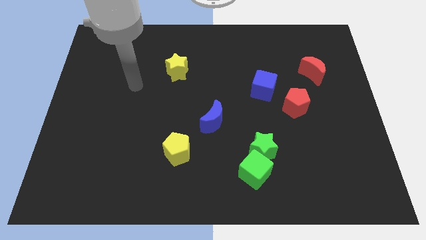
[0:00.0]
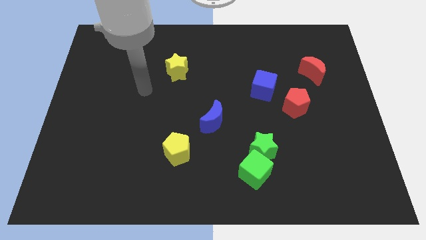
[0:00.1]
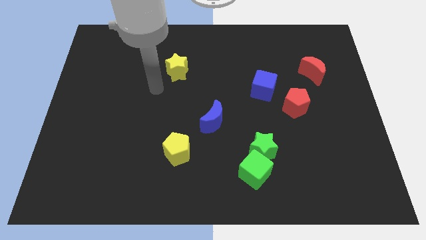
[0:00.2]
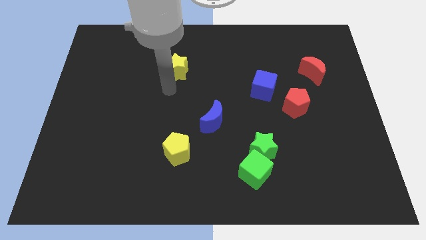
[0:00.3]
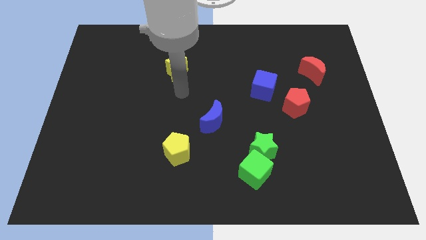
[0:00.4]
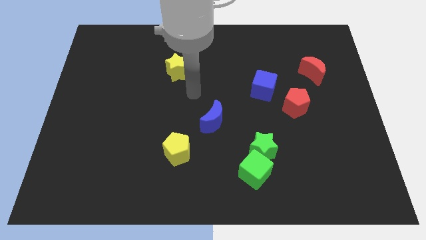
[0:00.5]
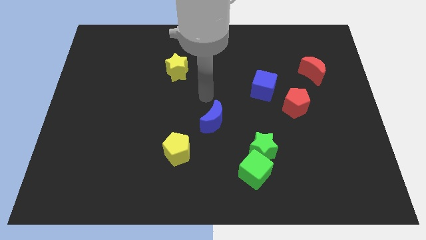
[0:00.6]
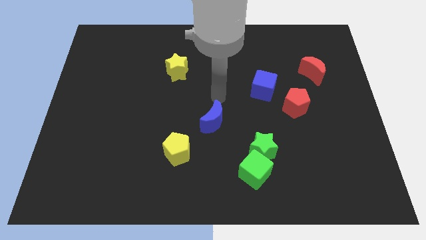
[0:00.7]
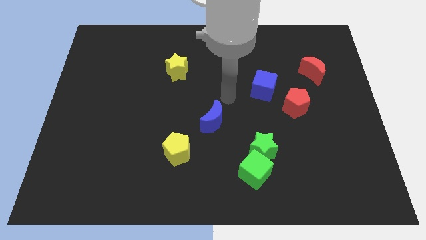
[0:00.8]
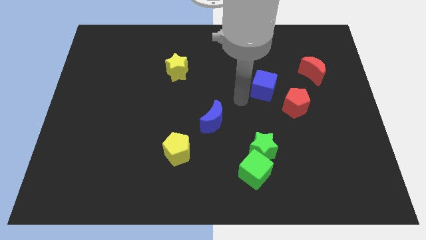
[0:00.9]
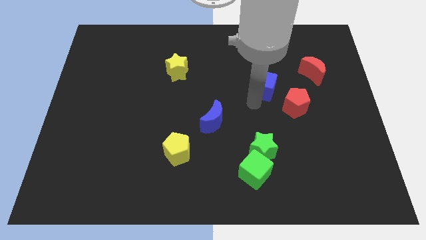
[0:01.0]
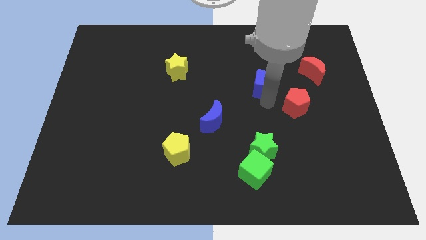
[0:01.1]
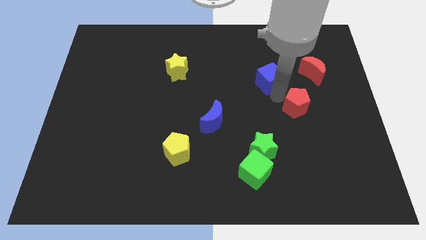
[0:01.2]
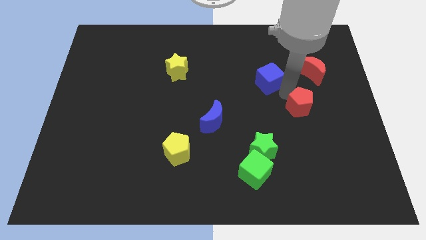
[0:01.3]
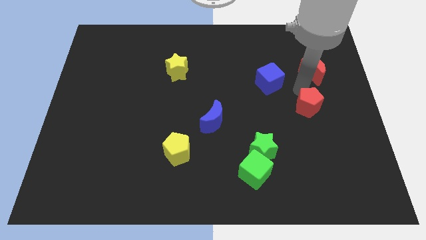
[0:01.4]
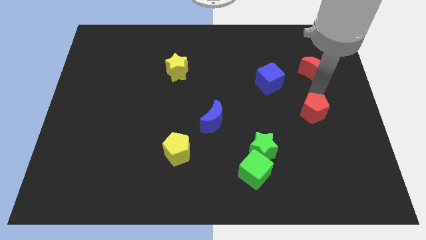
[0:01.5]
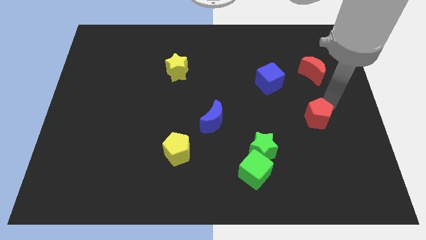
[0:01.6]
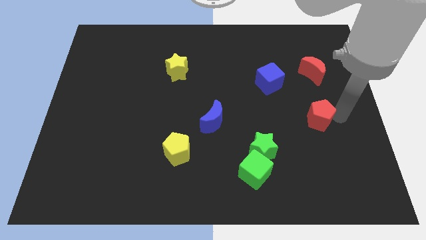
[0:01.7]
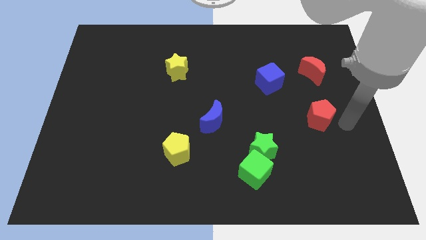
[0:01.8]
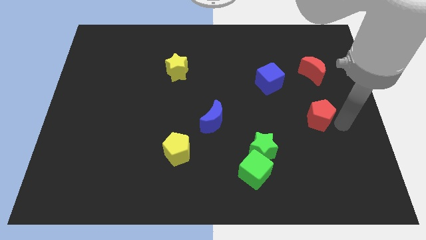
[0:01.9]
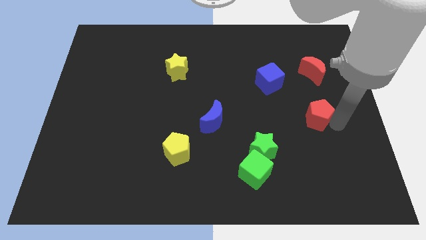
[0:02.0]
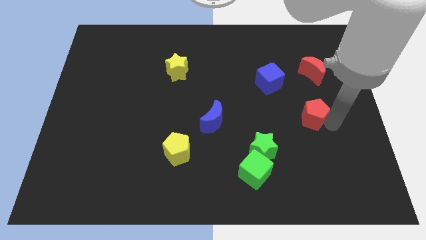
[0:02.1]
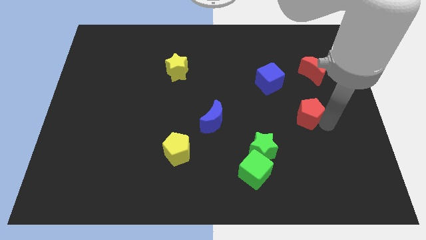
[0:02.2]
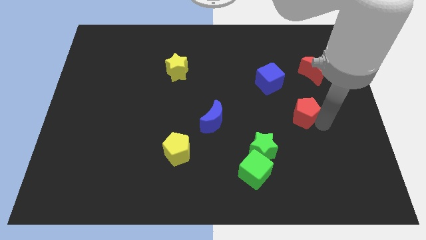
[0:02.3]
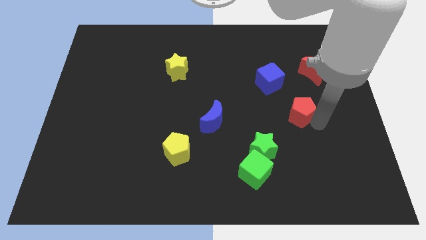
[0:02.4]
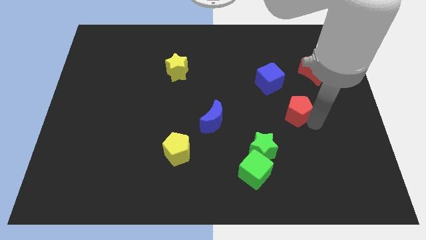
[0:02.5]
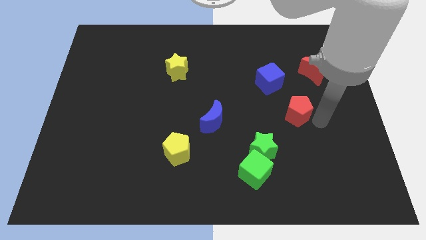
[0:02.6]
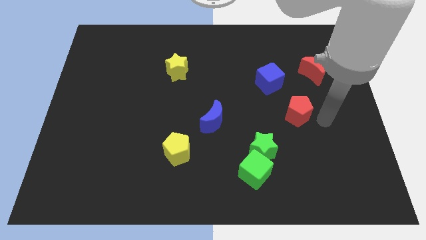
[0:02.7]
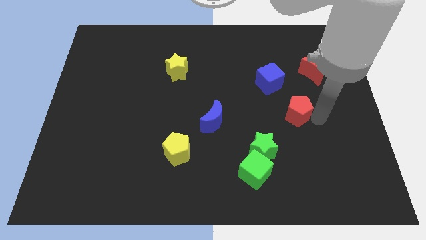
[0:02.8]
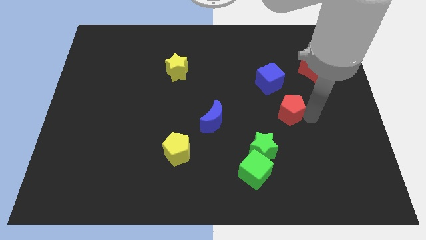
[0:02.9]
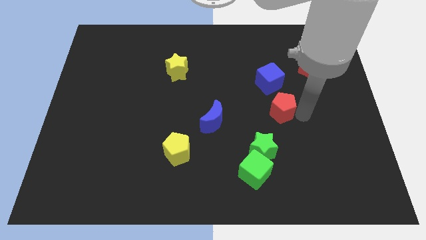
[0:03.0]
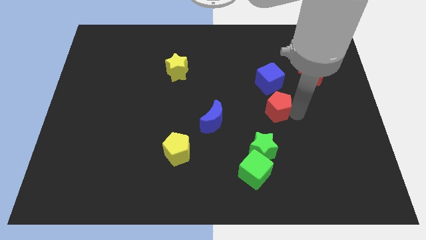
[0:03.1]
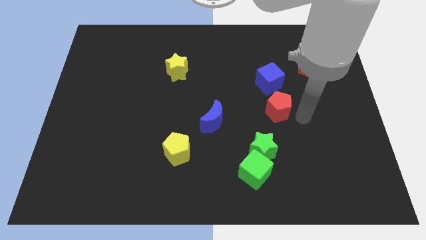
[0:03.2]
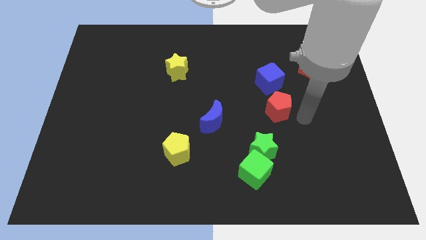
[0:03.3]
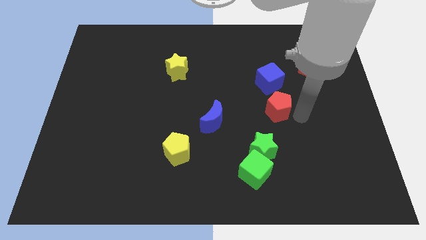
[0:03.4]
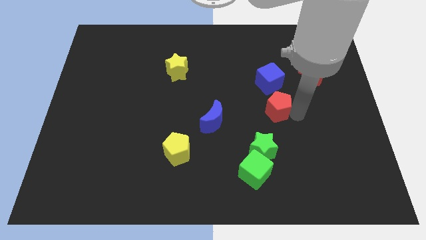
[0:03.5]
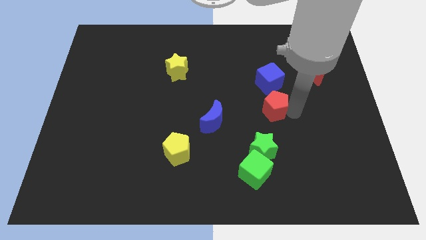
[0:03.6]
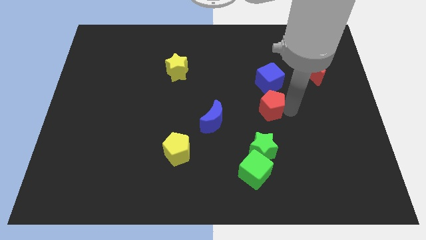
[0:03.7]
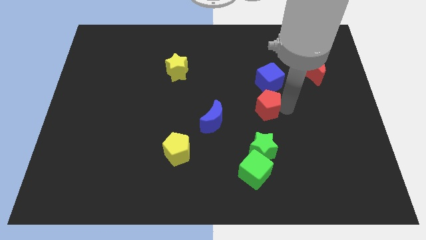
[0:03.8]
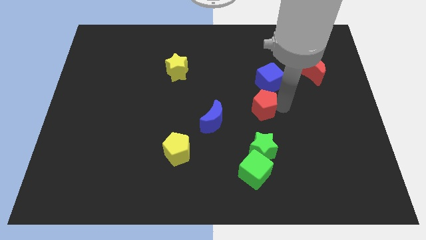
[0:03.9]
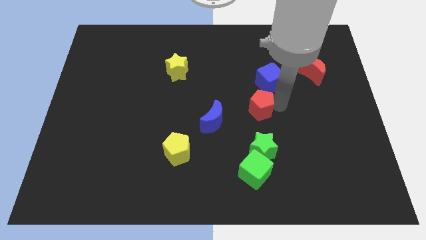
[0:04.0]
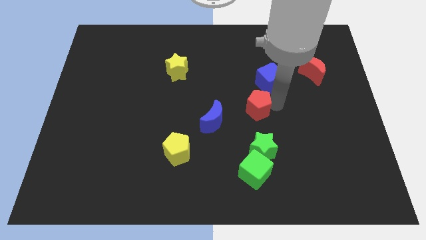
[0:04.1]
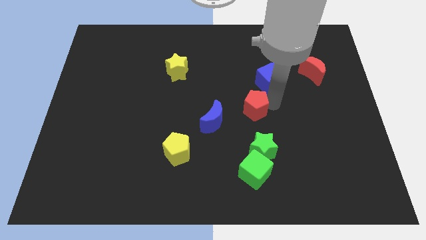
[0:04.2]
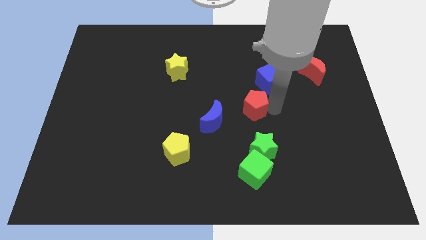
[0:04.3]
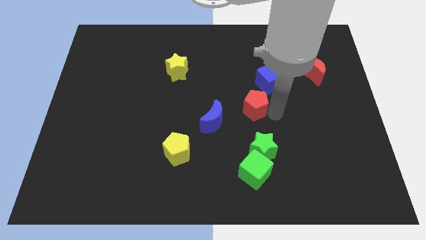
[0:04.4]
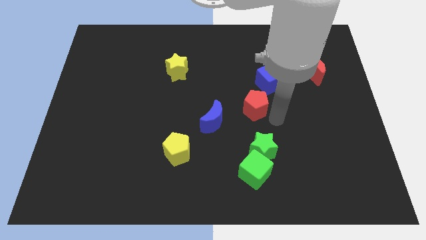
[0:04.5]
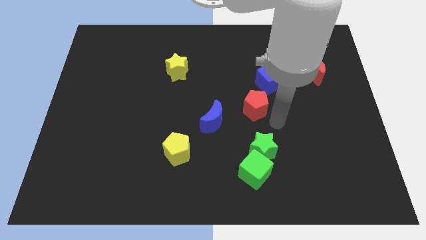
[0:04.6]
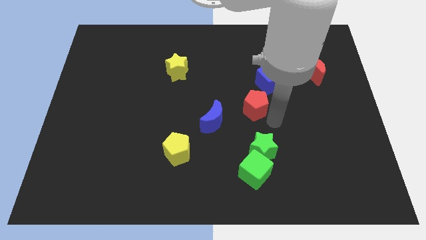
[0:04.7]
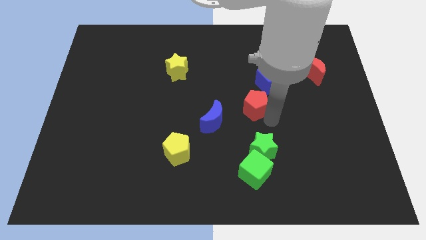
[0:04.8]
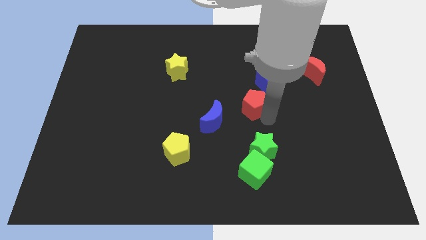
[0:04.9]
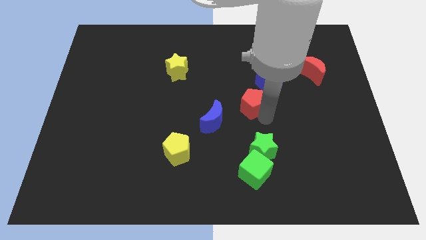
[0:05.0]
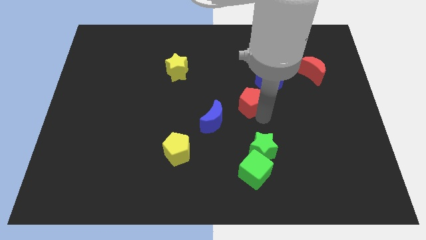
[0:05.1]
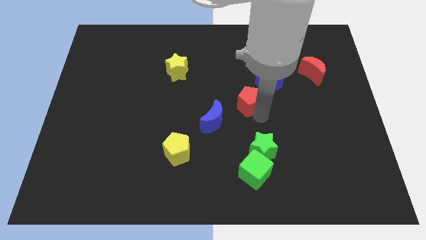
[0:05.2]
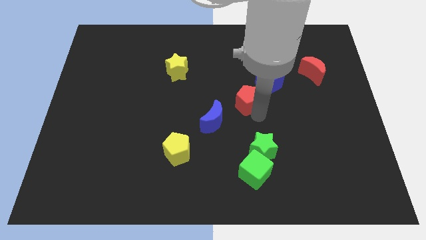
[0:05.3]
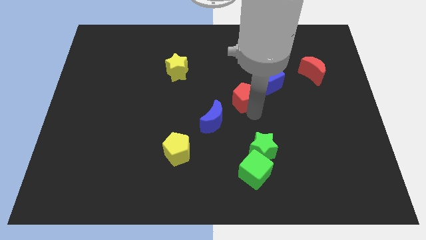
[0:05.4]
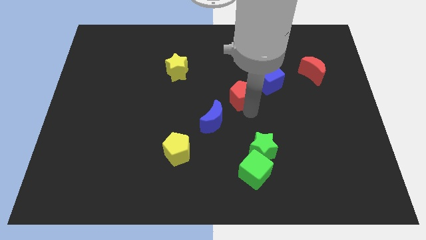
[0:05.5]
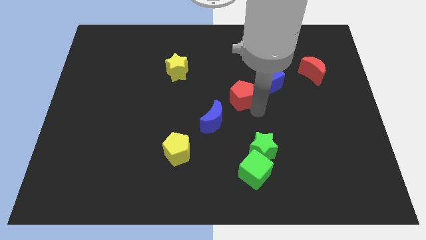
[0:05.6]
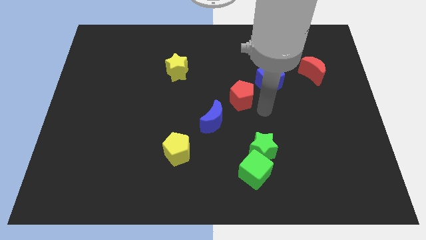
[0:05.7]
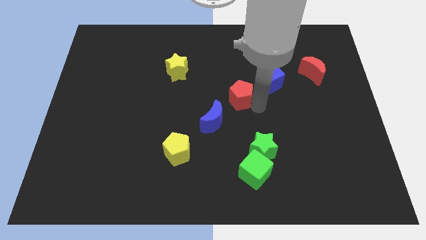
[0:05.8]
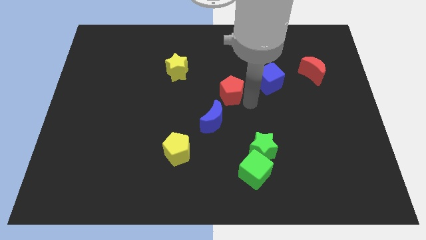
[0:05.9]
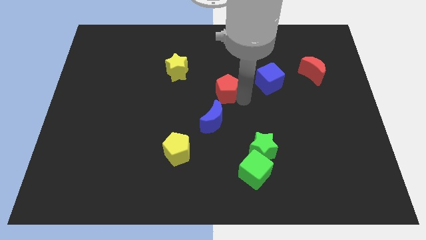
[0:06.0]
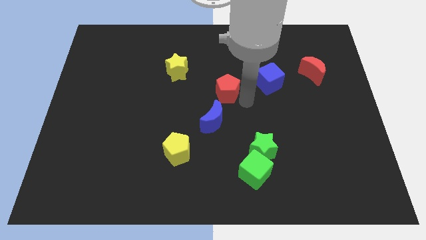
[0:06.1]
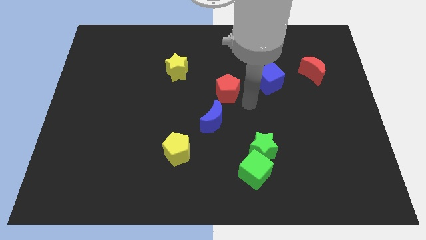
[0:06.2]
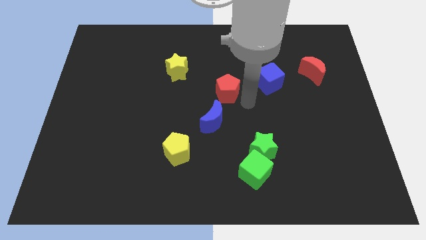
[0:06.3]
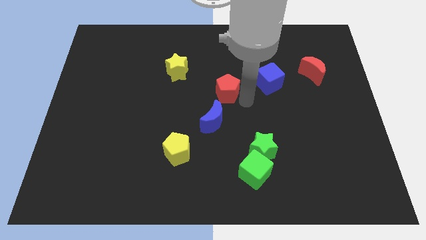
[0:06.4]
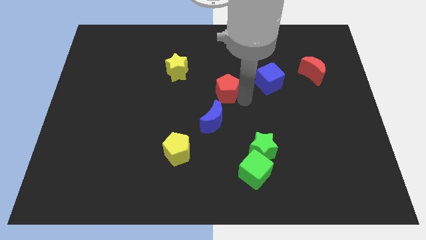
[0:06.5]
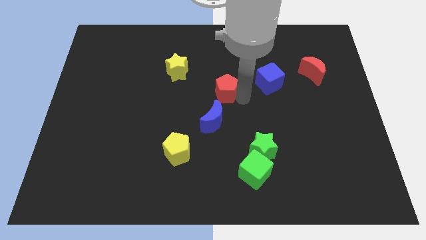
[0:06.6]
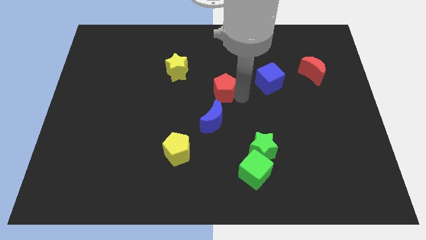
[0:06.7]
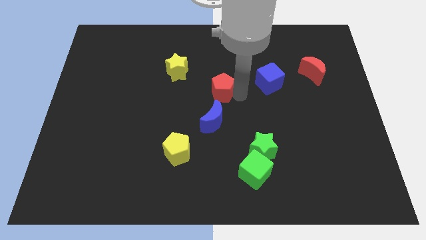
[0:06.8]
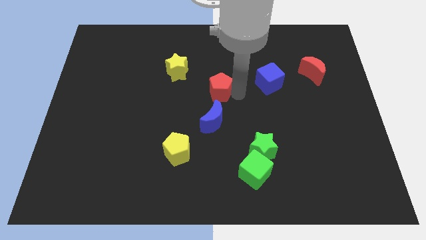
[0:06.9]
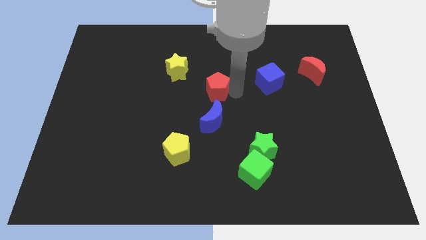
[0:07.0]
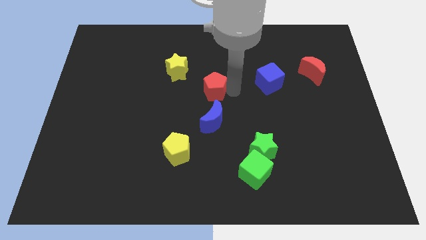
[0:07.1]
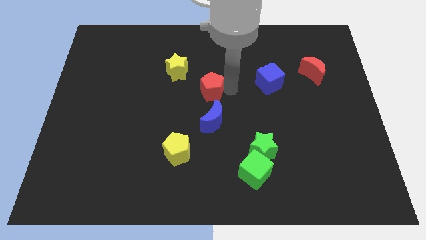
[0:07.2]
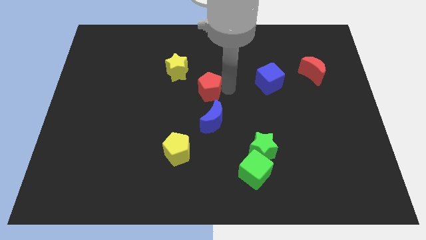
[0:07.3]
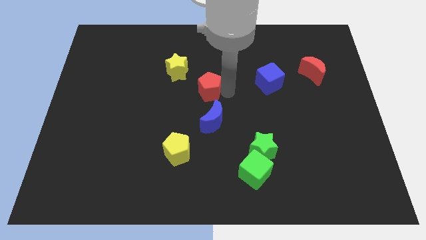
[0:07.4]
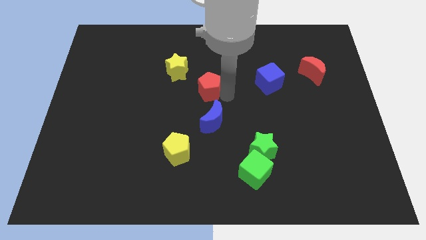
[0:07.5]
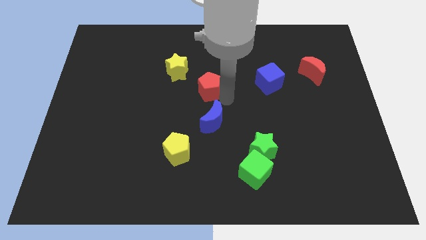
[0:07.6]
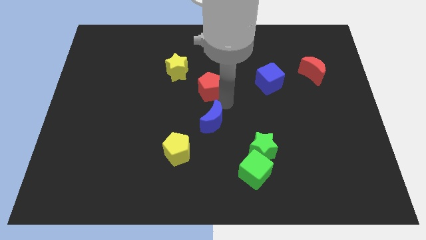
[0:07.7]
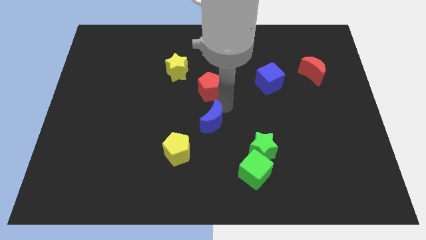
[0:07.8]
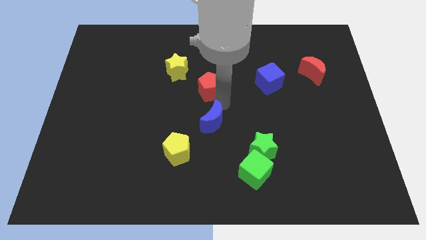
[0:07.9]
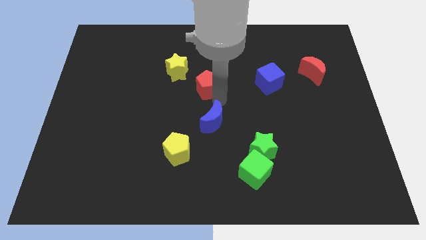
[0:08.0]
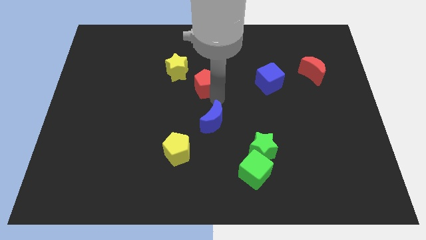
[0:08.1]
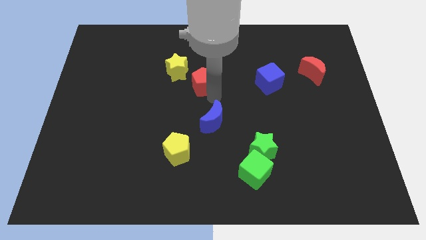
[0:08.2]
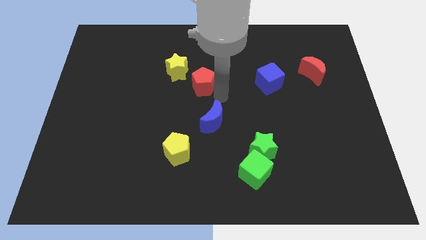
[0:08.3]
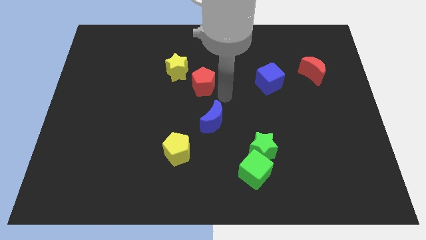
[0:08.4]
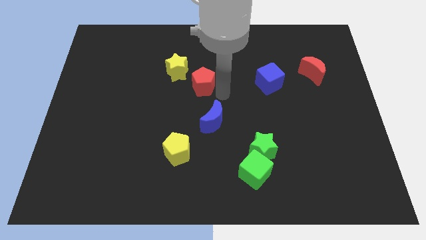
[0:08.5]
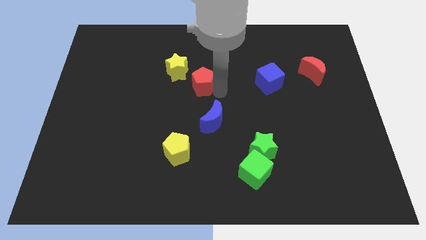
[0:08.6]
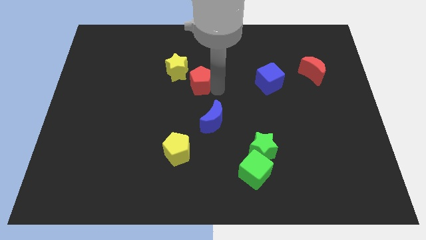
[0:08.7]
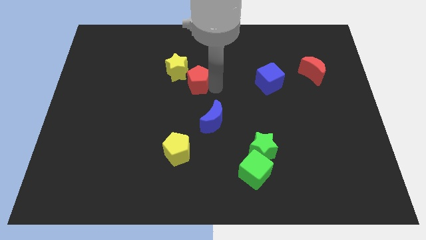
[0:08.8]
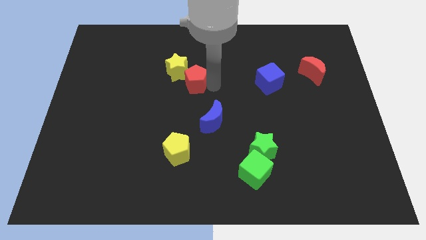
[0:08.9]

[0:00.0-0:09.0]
move the red pentagon to the yellow star
